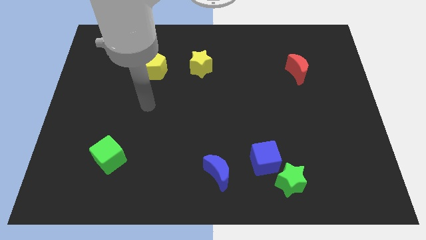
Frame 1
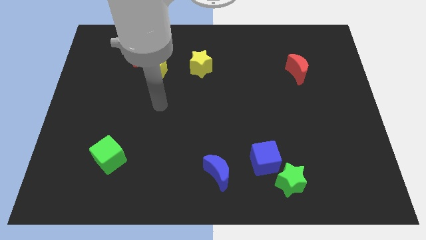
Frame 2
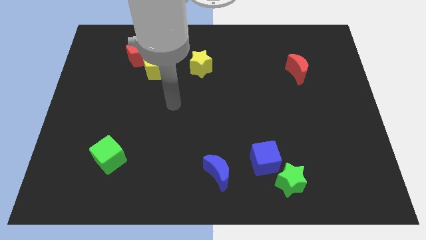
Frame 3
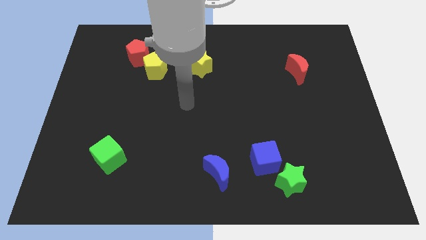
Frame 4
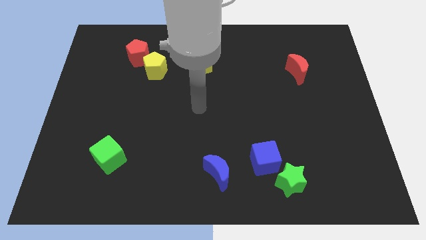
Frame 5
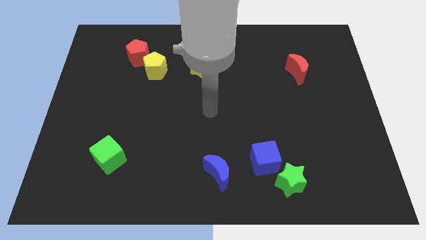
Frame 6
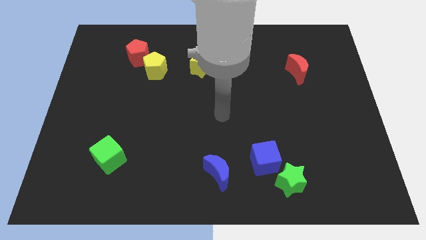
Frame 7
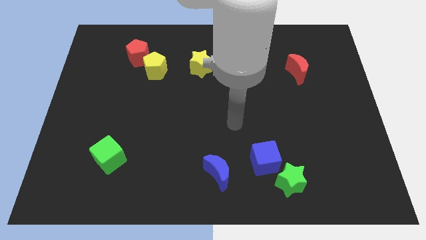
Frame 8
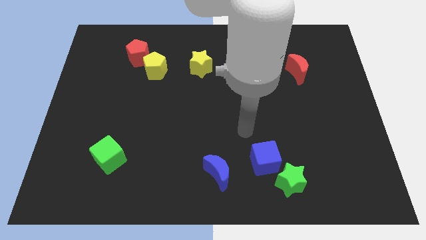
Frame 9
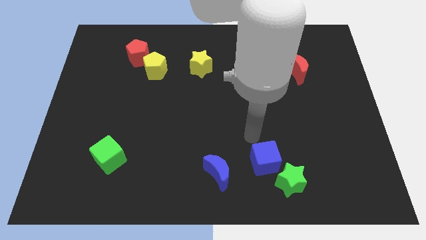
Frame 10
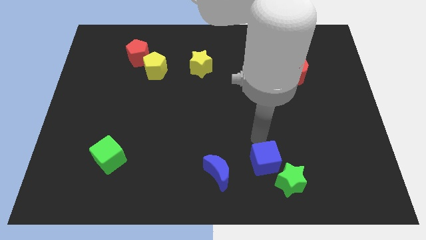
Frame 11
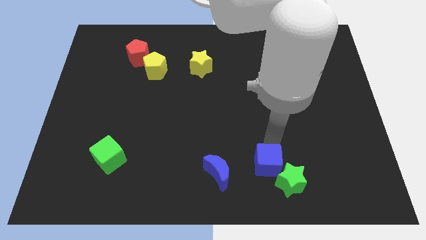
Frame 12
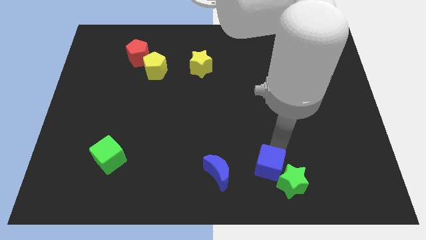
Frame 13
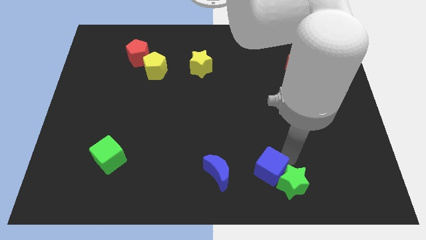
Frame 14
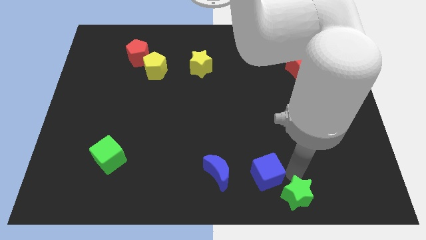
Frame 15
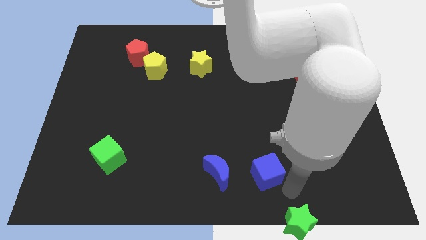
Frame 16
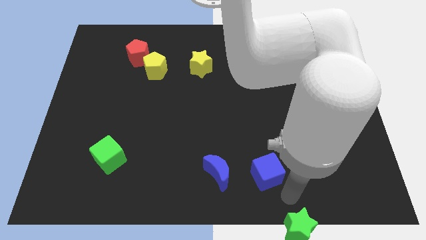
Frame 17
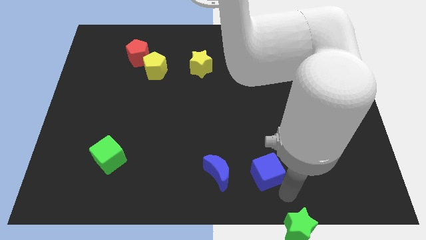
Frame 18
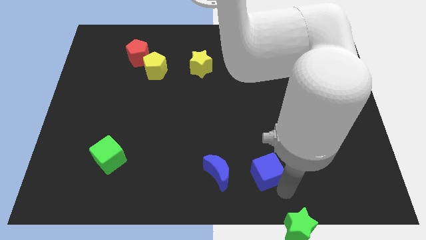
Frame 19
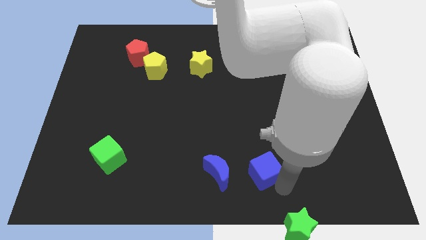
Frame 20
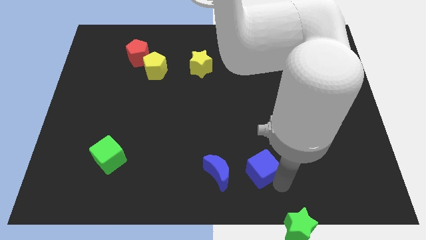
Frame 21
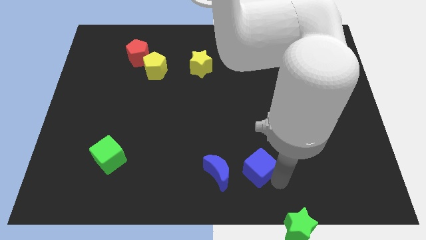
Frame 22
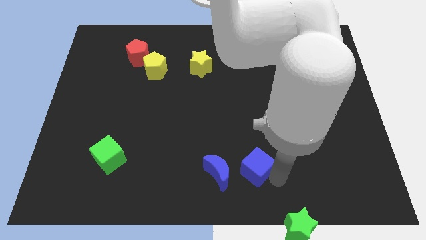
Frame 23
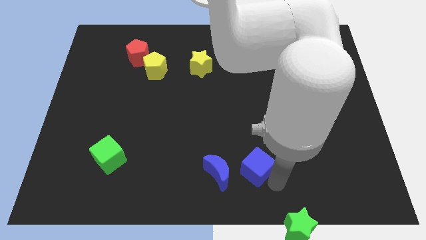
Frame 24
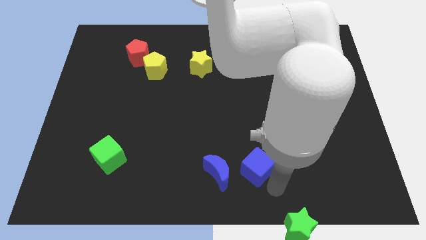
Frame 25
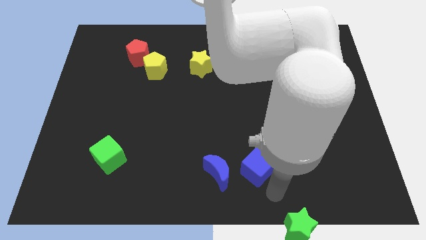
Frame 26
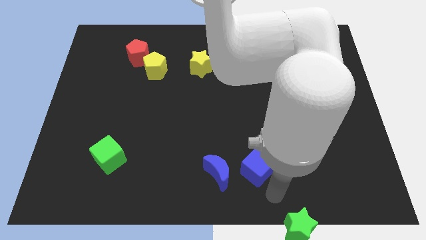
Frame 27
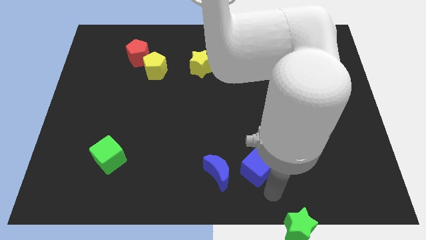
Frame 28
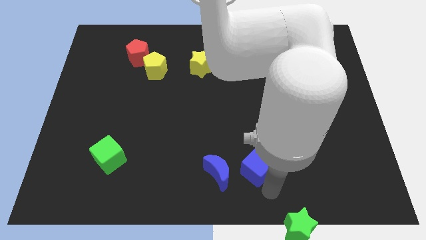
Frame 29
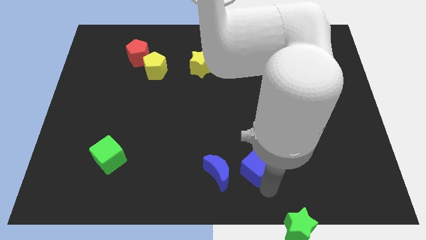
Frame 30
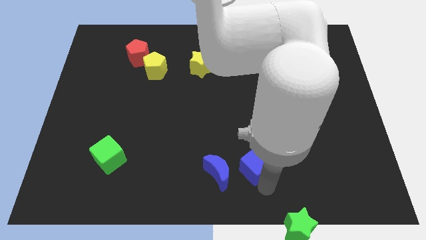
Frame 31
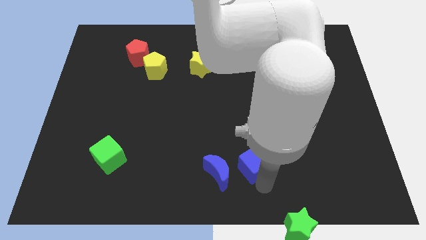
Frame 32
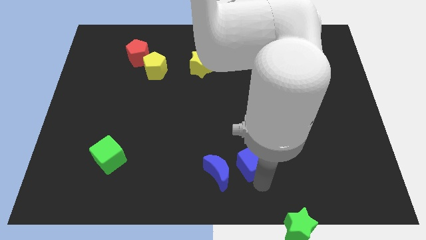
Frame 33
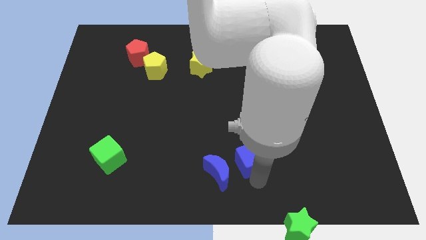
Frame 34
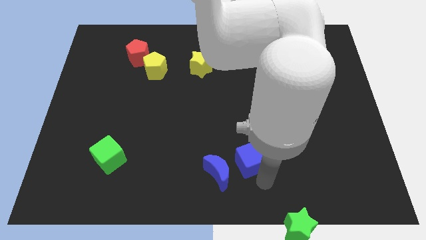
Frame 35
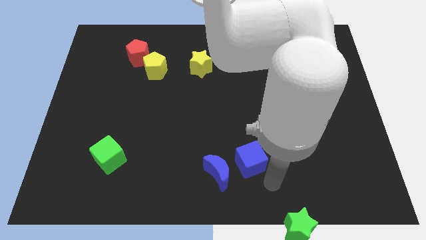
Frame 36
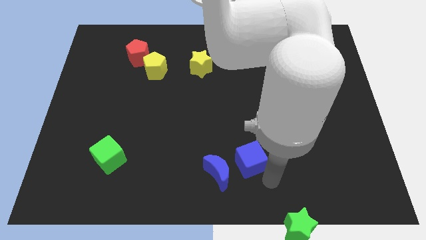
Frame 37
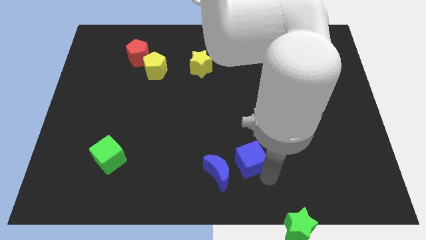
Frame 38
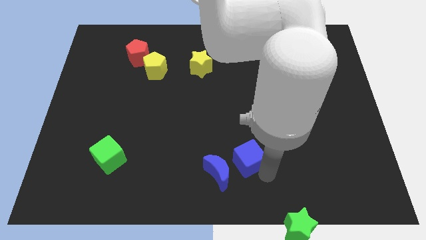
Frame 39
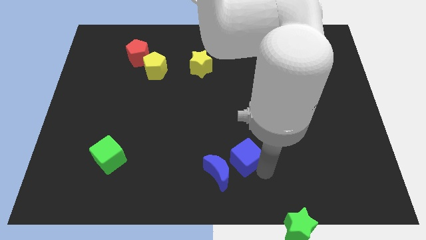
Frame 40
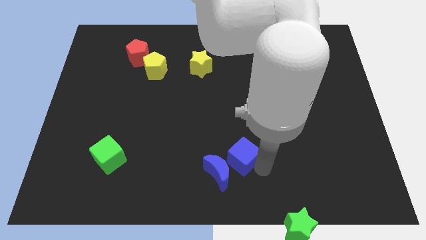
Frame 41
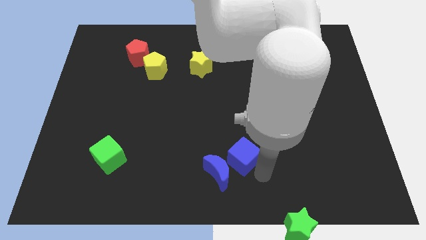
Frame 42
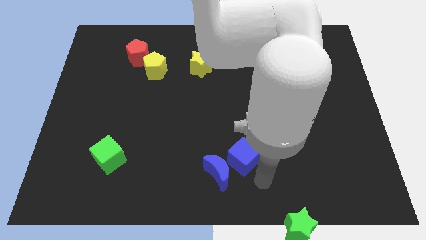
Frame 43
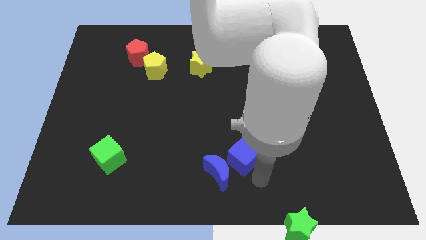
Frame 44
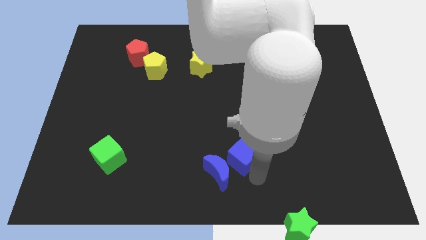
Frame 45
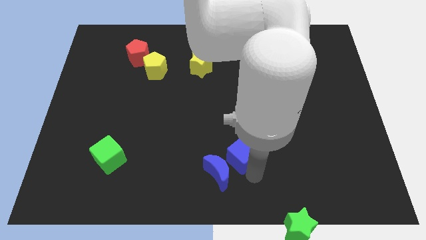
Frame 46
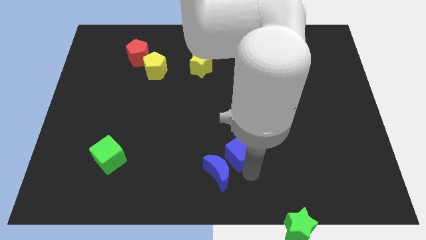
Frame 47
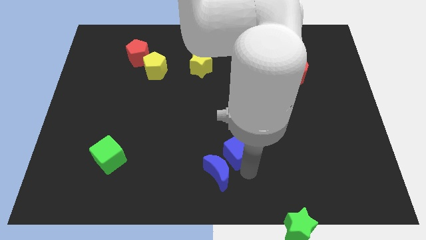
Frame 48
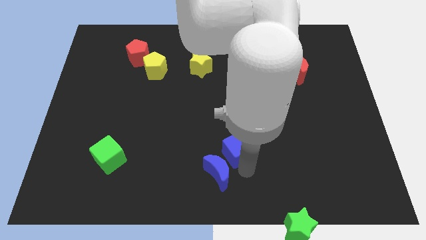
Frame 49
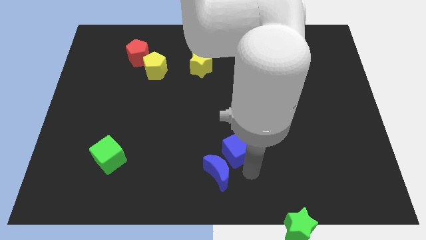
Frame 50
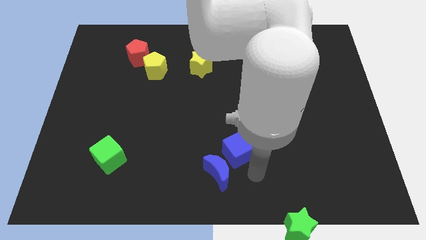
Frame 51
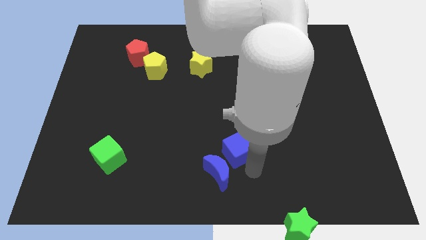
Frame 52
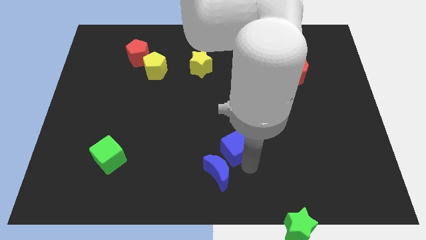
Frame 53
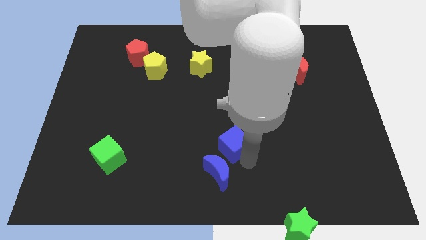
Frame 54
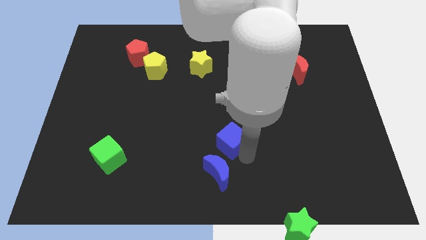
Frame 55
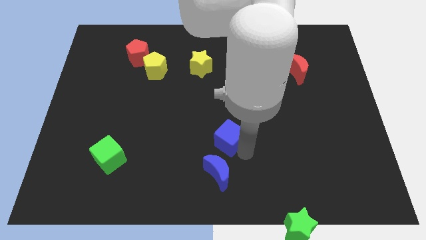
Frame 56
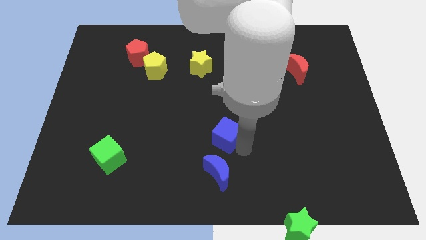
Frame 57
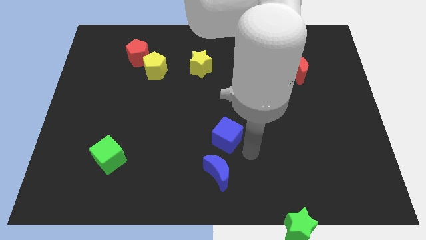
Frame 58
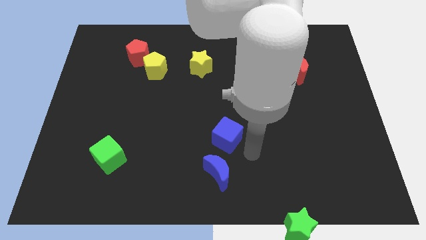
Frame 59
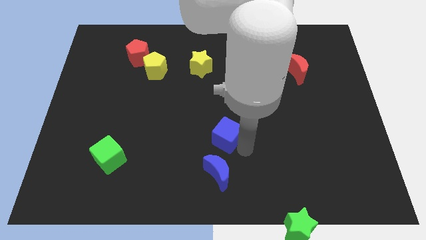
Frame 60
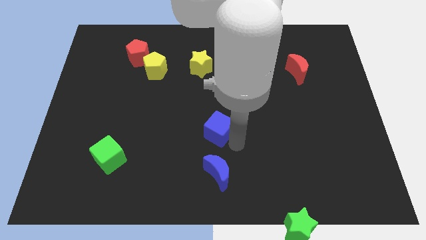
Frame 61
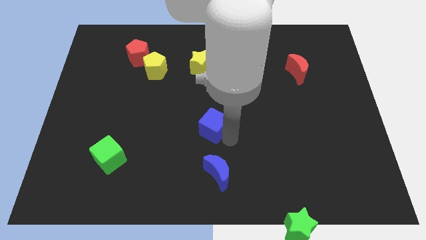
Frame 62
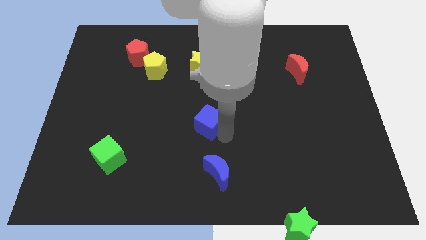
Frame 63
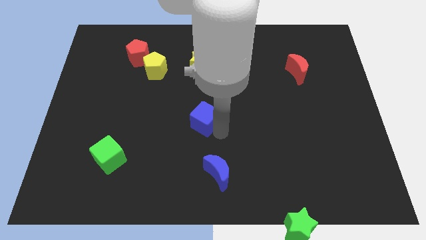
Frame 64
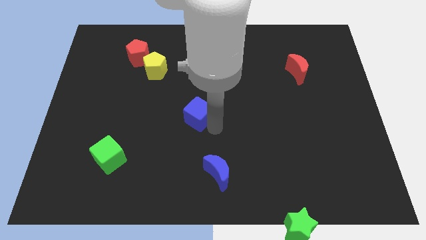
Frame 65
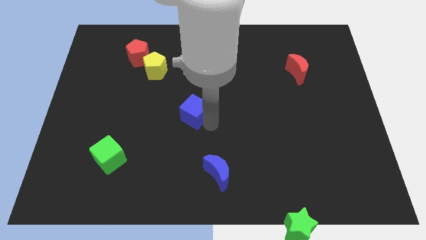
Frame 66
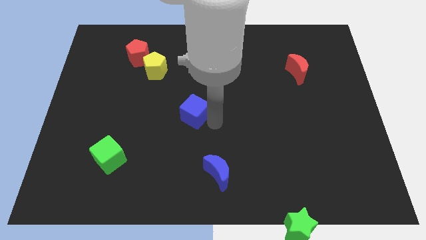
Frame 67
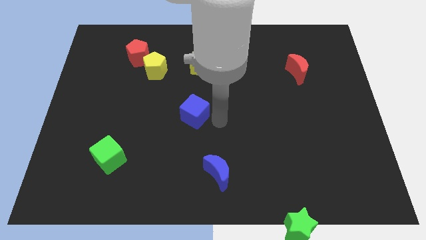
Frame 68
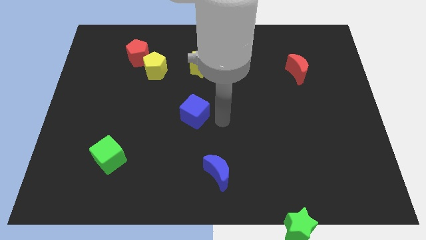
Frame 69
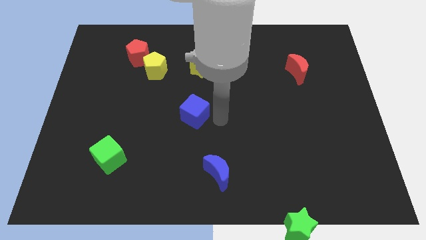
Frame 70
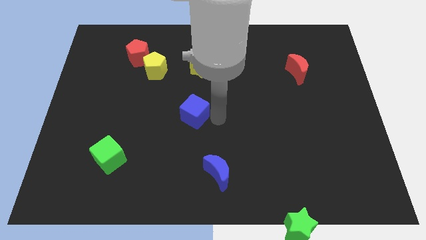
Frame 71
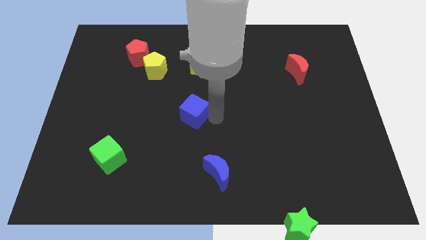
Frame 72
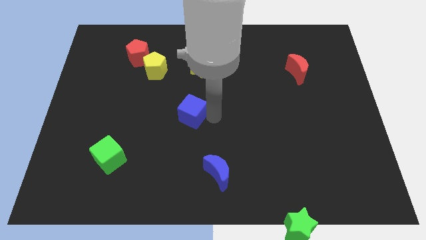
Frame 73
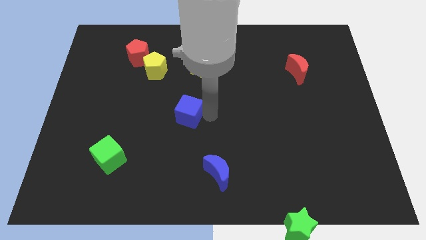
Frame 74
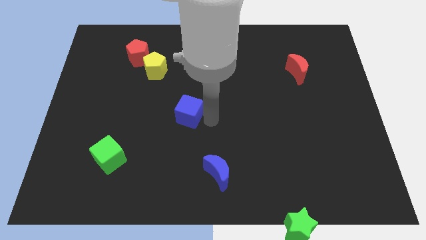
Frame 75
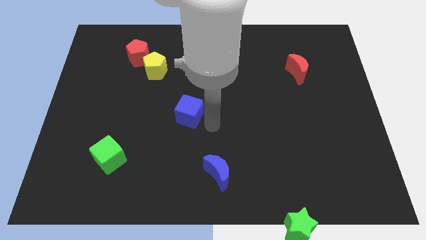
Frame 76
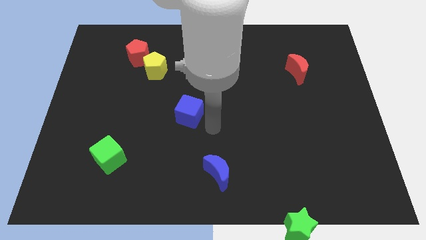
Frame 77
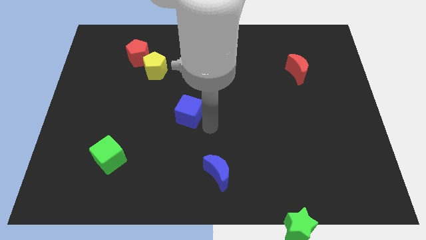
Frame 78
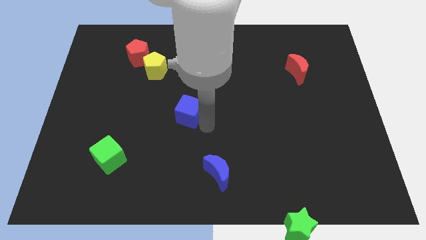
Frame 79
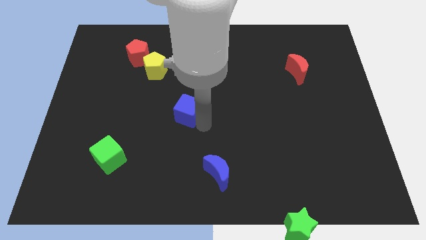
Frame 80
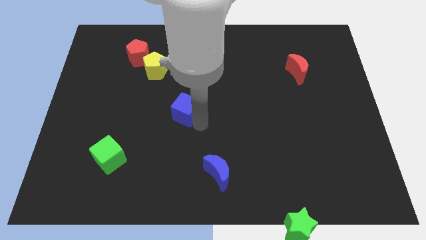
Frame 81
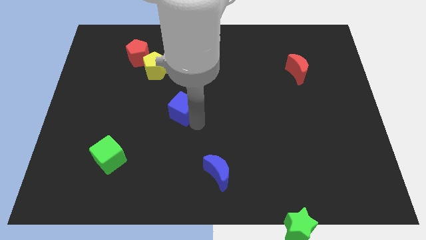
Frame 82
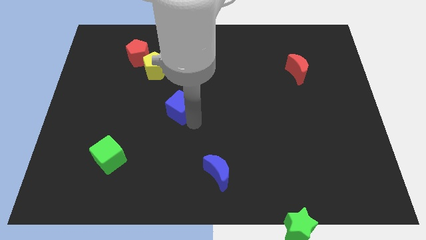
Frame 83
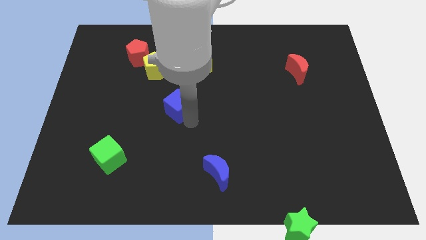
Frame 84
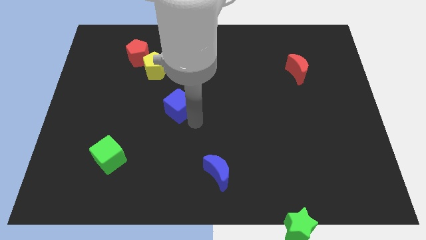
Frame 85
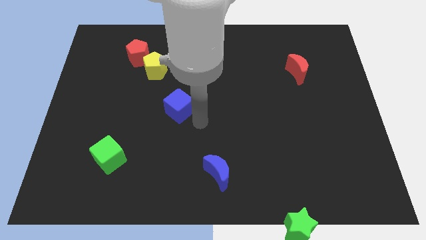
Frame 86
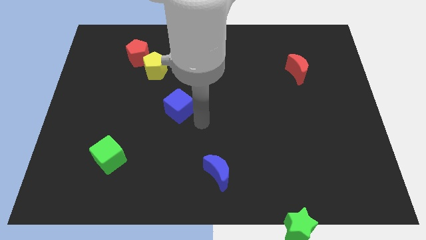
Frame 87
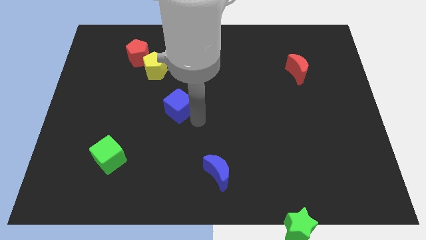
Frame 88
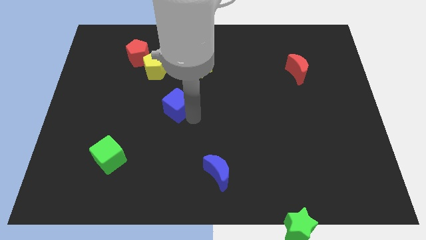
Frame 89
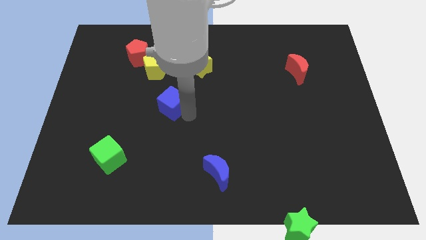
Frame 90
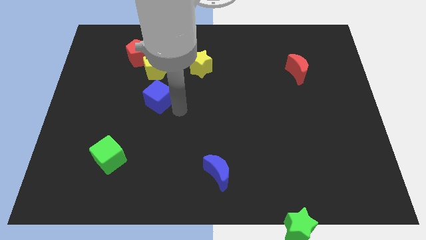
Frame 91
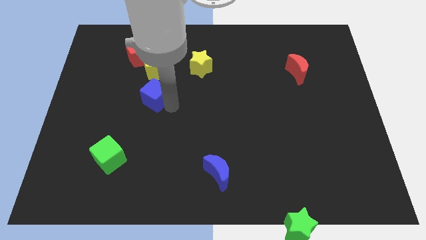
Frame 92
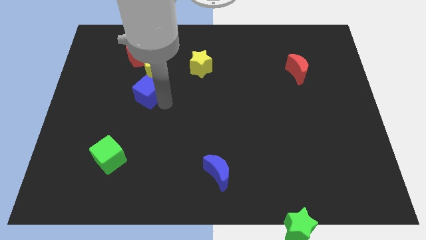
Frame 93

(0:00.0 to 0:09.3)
slide the blue cube to the bottom side of the red pentagon
